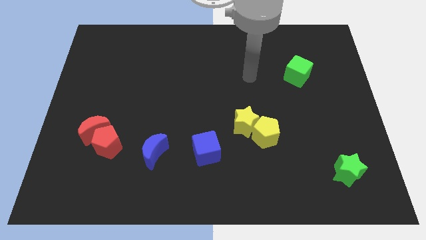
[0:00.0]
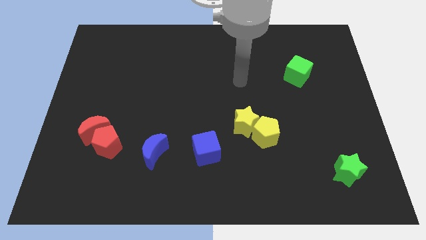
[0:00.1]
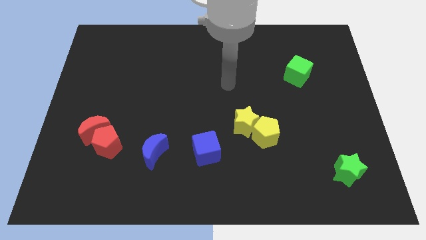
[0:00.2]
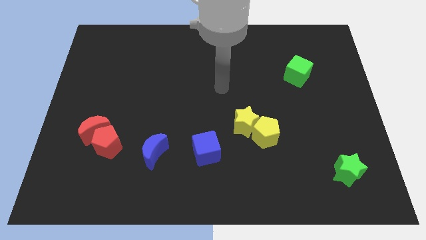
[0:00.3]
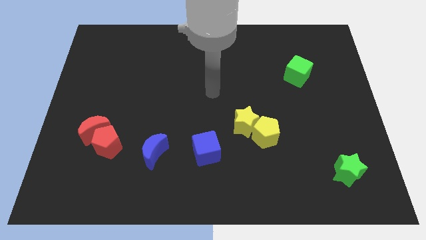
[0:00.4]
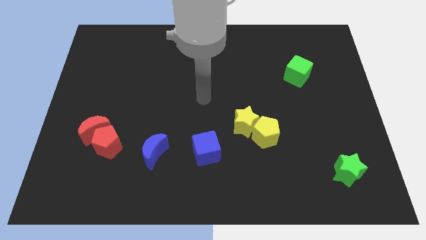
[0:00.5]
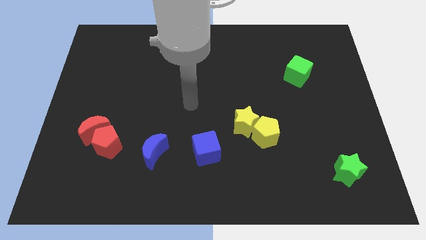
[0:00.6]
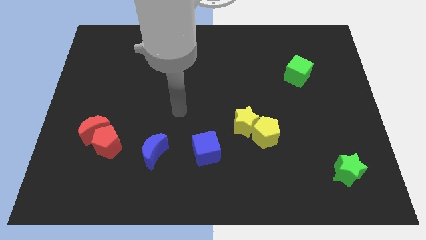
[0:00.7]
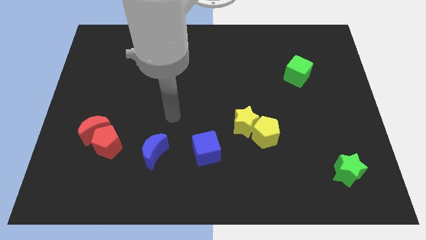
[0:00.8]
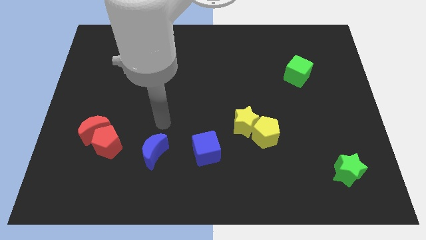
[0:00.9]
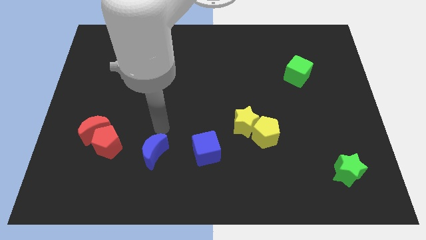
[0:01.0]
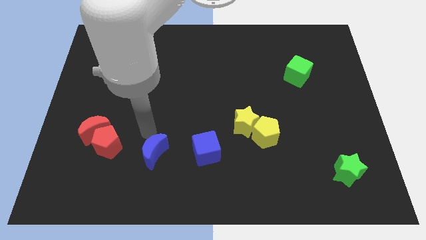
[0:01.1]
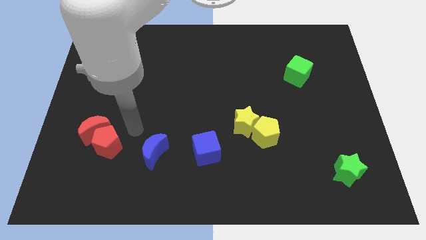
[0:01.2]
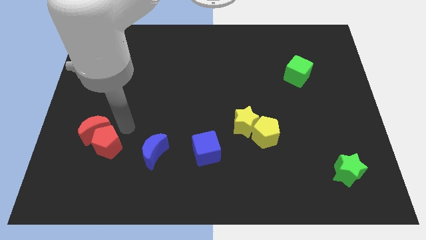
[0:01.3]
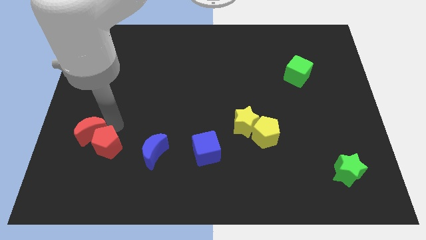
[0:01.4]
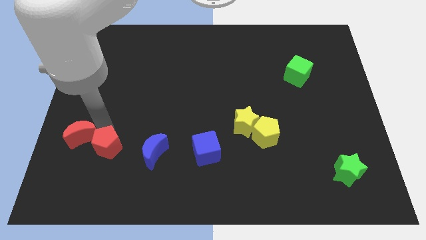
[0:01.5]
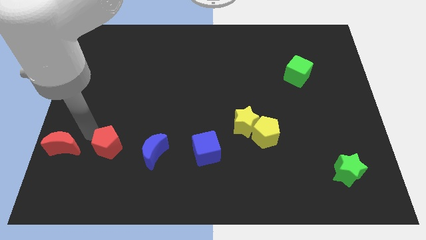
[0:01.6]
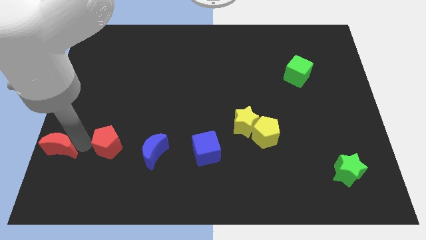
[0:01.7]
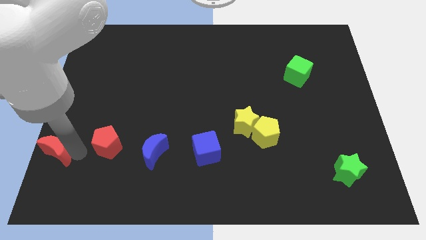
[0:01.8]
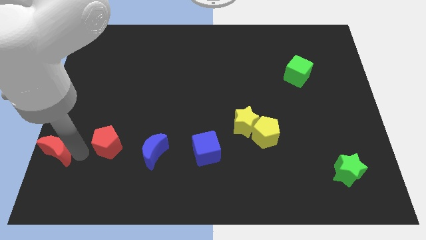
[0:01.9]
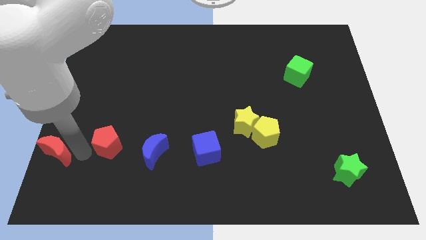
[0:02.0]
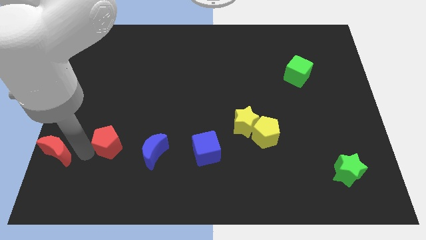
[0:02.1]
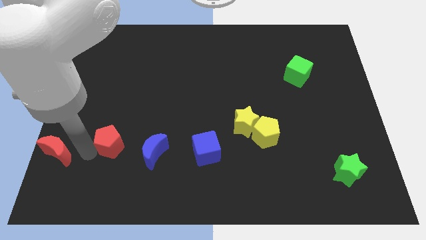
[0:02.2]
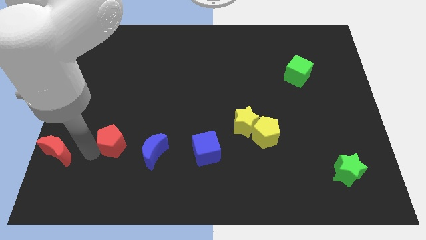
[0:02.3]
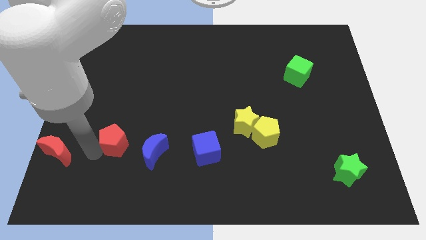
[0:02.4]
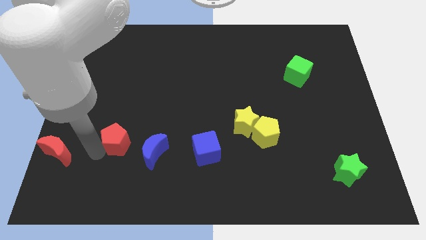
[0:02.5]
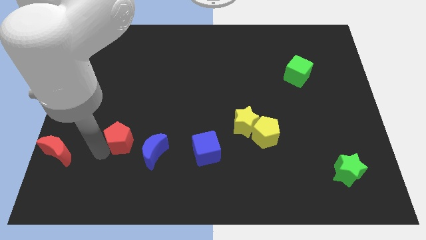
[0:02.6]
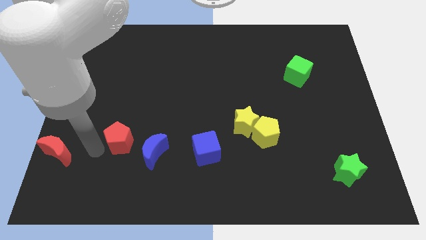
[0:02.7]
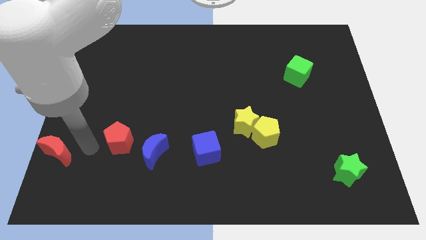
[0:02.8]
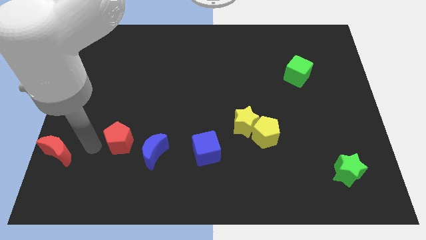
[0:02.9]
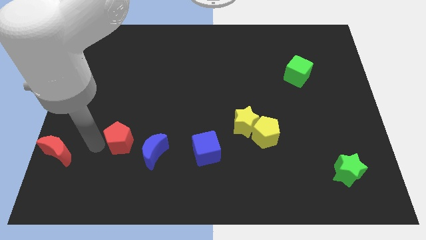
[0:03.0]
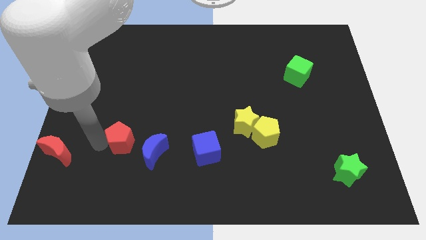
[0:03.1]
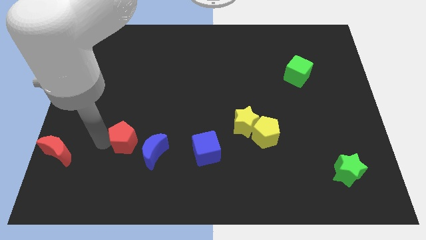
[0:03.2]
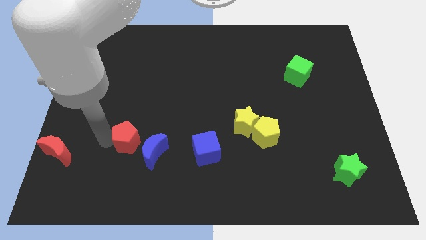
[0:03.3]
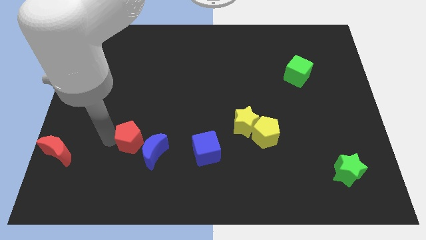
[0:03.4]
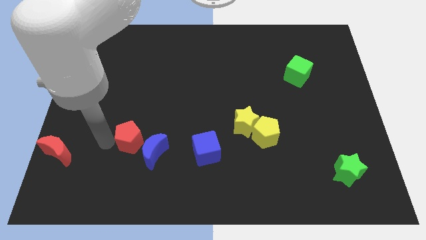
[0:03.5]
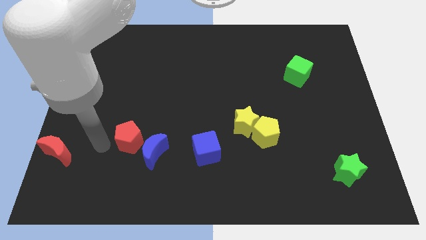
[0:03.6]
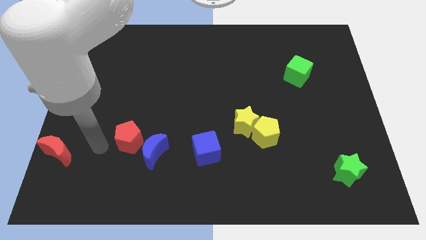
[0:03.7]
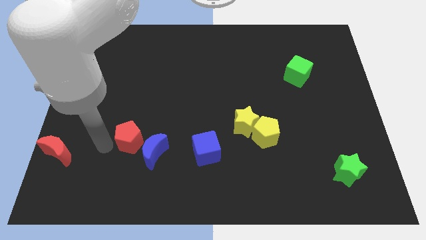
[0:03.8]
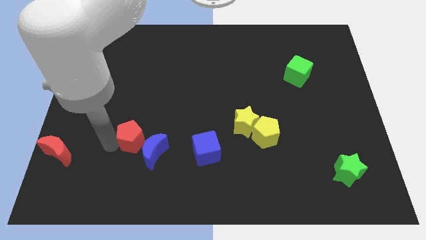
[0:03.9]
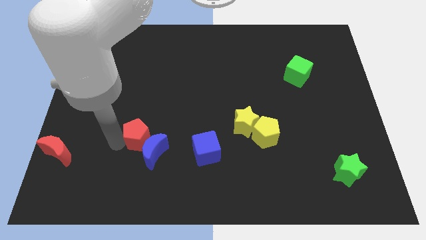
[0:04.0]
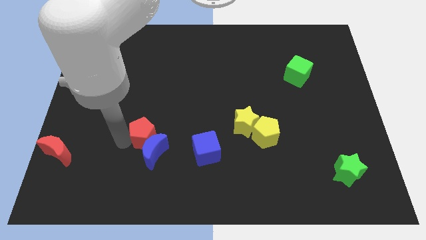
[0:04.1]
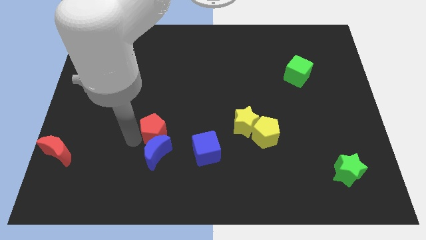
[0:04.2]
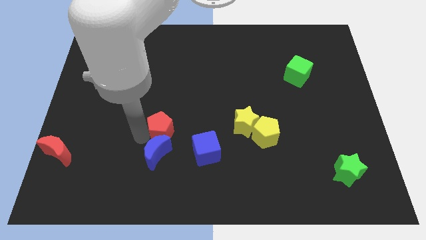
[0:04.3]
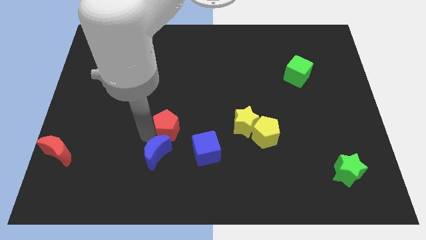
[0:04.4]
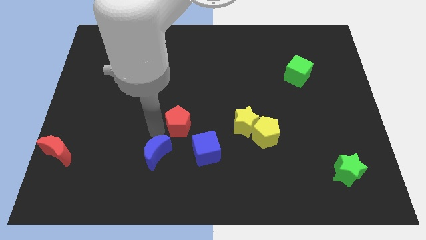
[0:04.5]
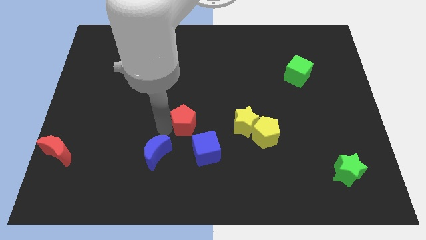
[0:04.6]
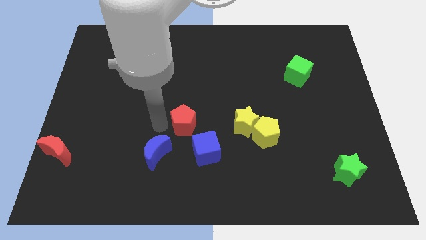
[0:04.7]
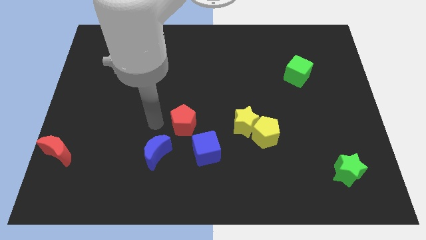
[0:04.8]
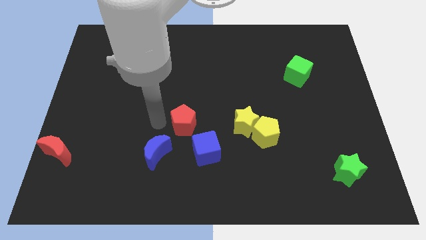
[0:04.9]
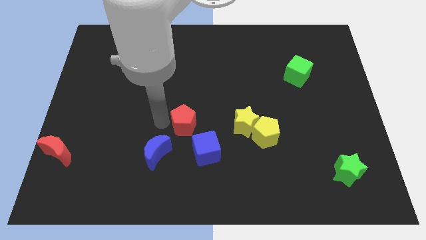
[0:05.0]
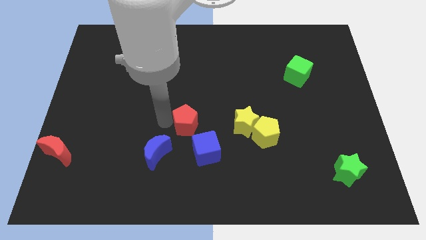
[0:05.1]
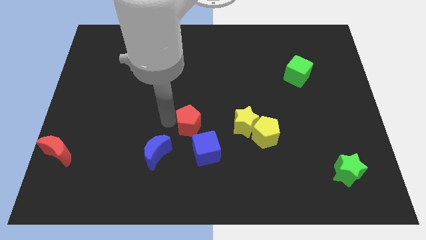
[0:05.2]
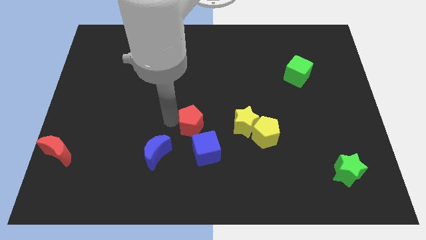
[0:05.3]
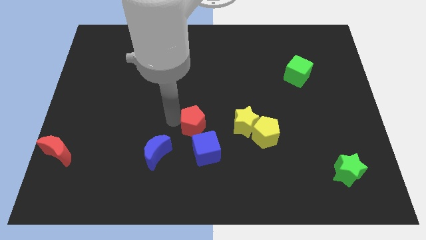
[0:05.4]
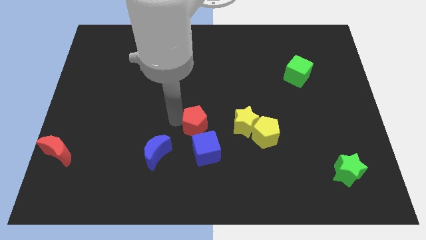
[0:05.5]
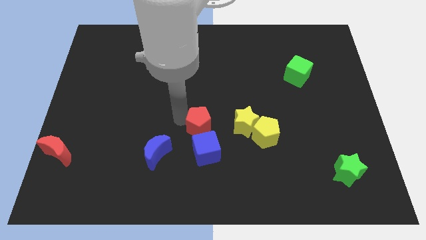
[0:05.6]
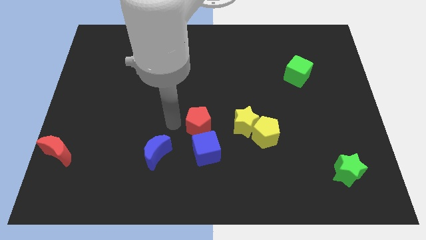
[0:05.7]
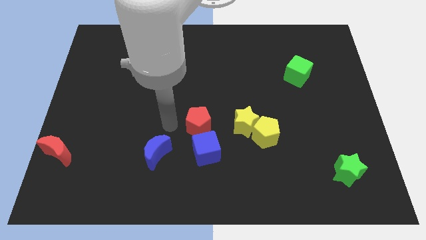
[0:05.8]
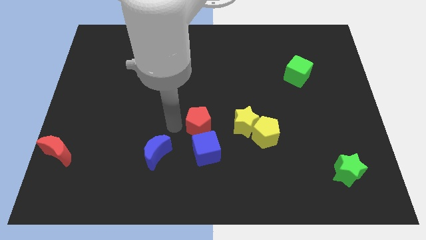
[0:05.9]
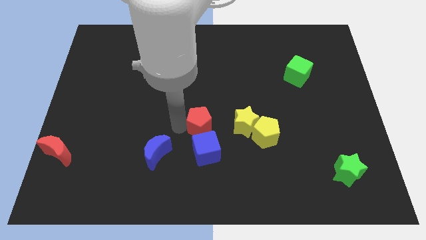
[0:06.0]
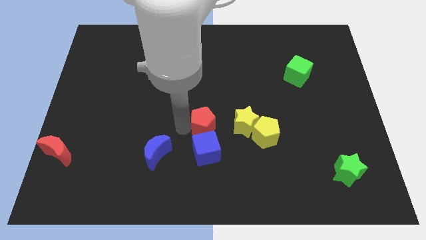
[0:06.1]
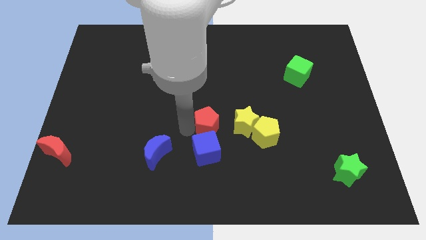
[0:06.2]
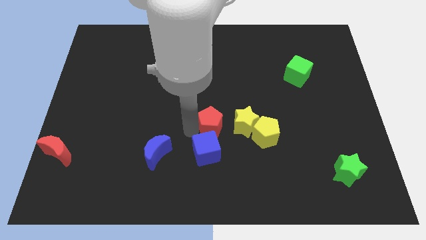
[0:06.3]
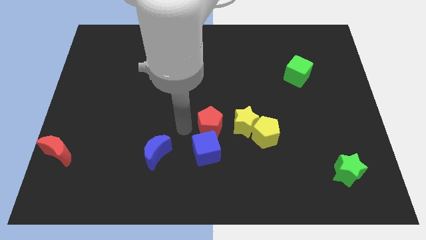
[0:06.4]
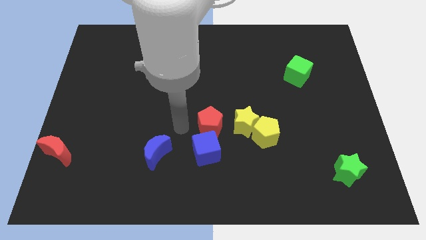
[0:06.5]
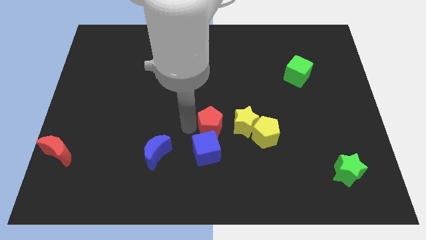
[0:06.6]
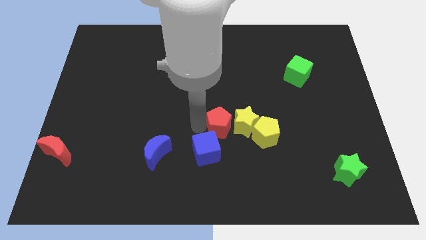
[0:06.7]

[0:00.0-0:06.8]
put the red pentagon close to the yellow star
